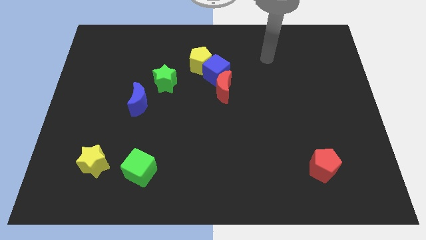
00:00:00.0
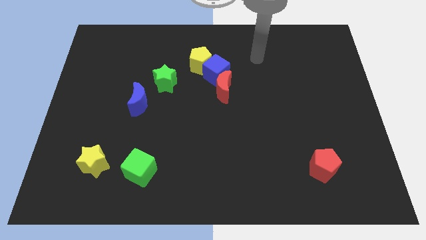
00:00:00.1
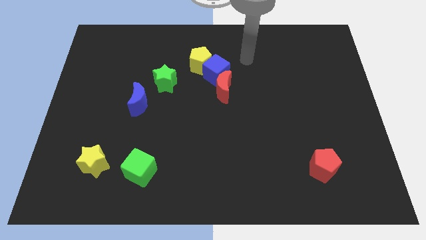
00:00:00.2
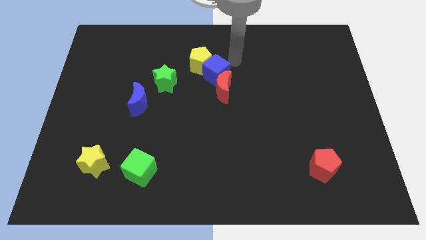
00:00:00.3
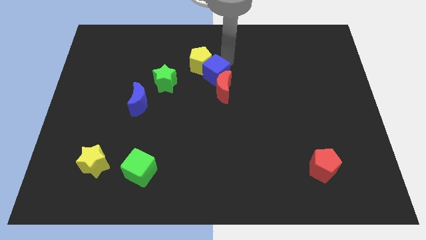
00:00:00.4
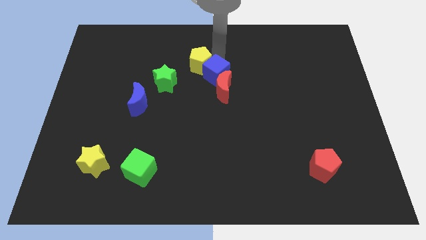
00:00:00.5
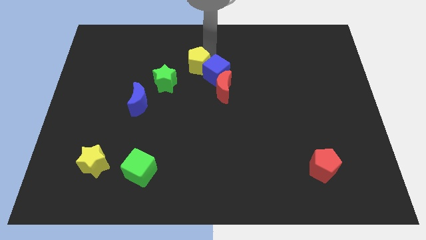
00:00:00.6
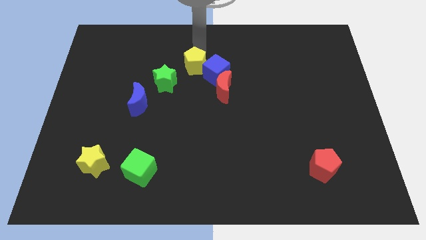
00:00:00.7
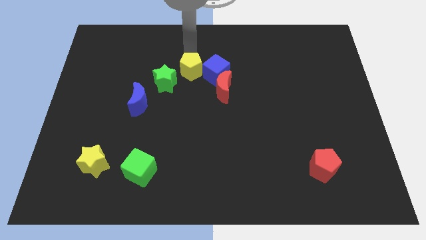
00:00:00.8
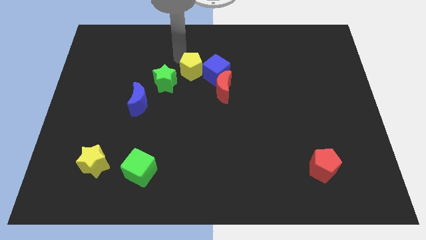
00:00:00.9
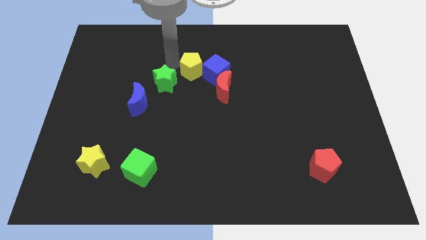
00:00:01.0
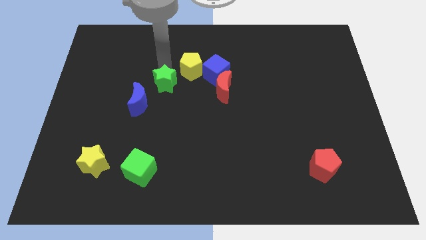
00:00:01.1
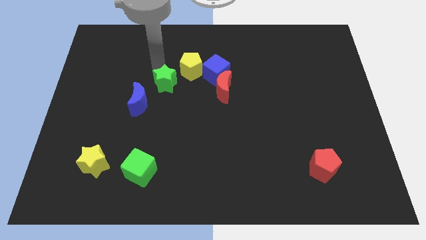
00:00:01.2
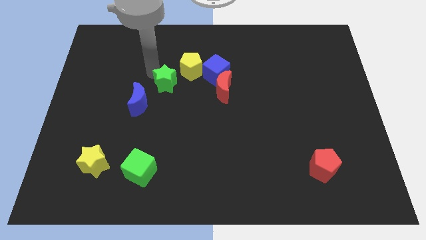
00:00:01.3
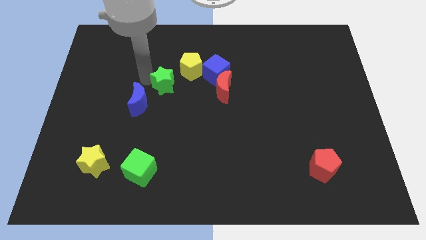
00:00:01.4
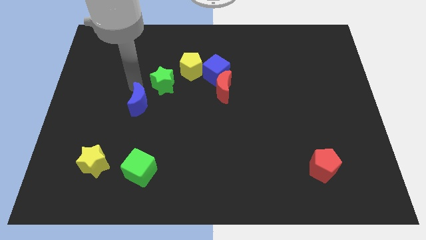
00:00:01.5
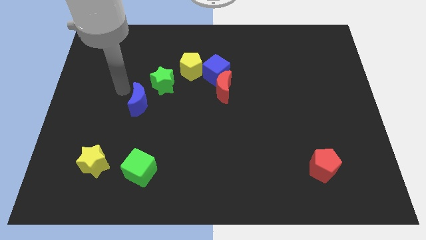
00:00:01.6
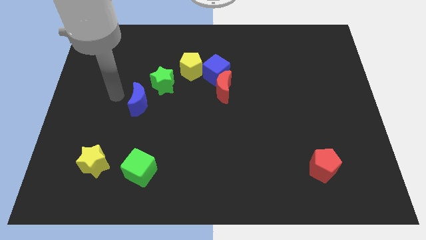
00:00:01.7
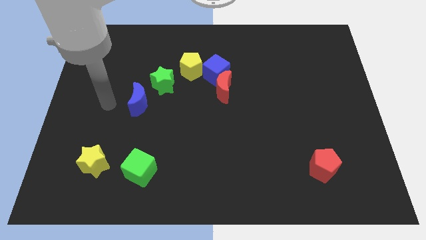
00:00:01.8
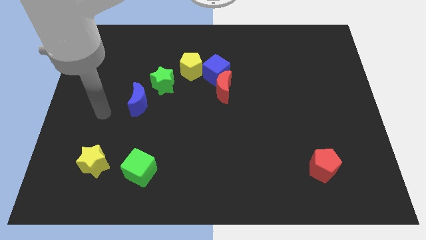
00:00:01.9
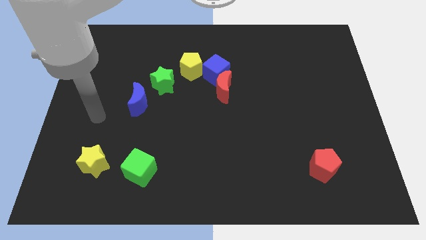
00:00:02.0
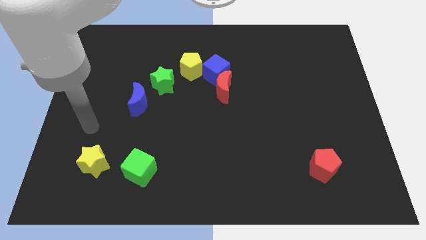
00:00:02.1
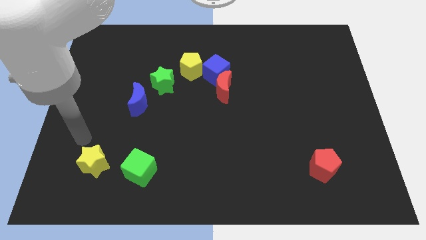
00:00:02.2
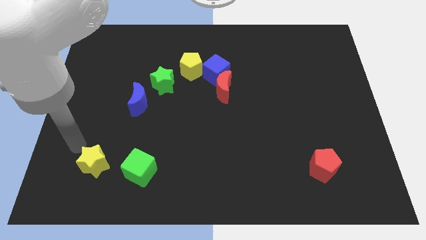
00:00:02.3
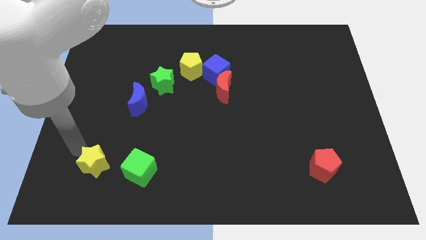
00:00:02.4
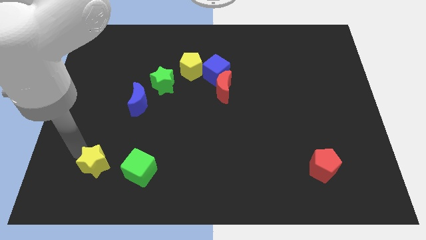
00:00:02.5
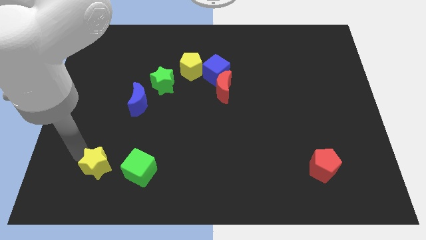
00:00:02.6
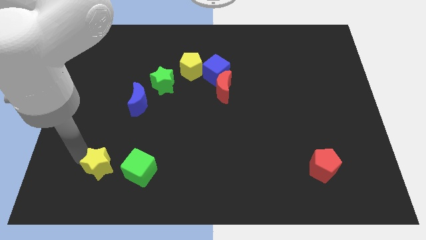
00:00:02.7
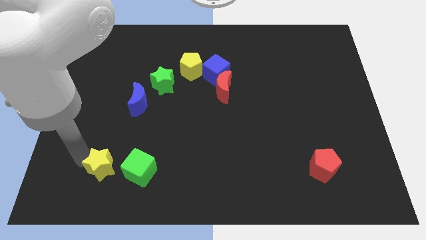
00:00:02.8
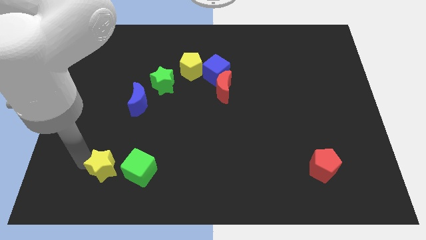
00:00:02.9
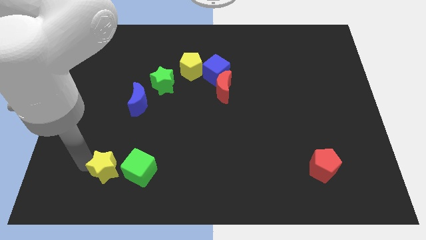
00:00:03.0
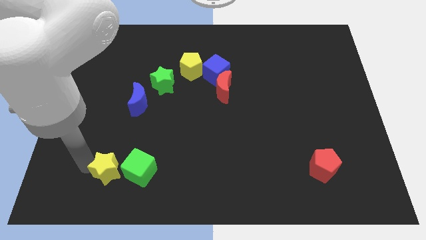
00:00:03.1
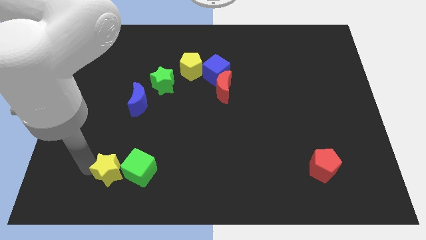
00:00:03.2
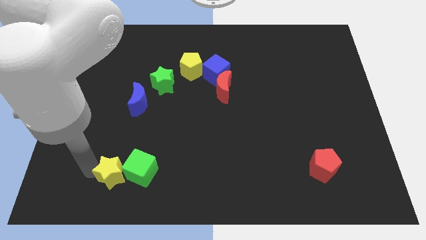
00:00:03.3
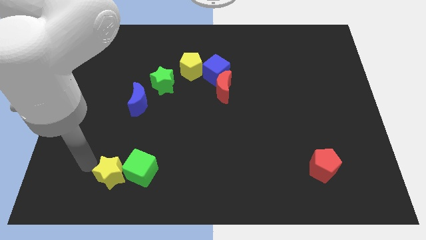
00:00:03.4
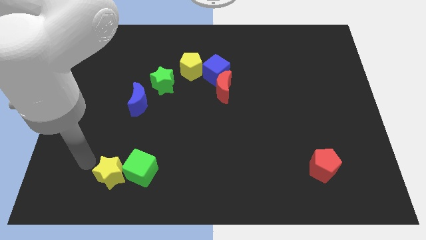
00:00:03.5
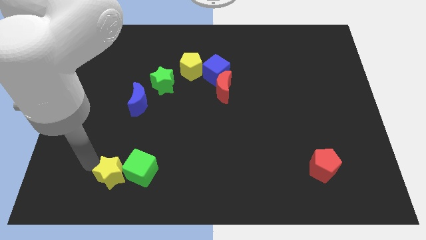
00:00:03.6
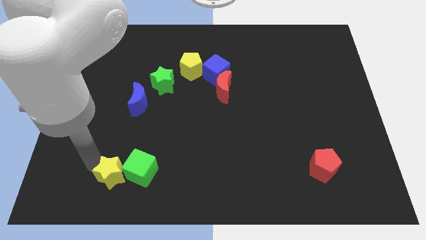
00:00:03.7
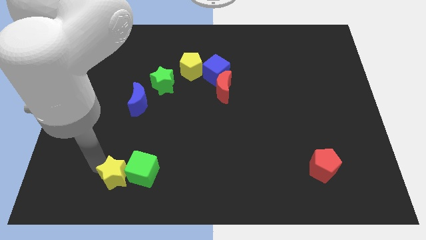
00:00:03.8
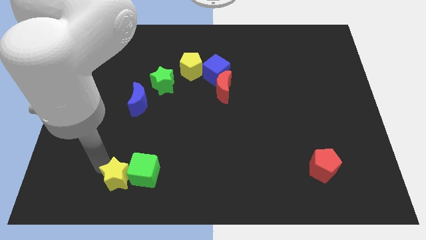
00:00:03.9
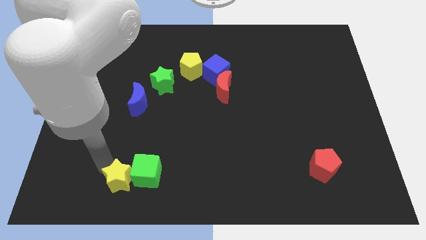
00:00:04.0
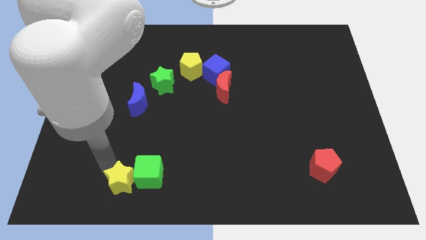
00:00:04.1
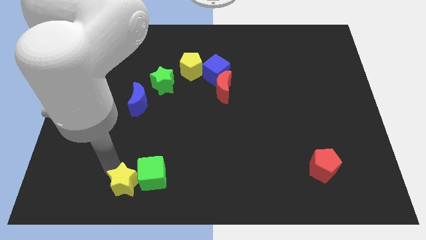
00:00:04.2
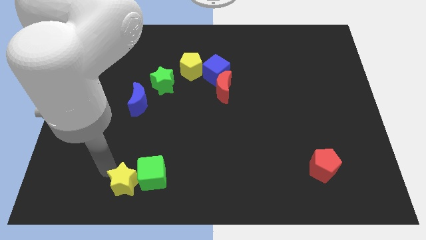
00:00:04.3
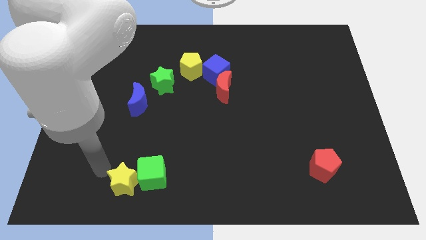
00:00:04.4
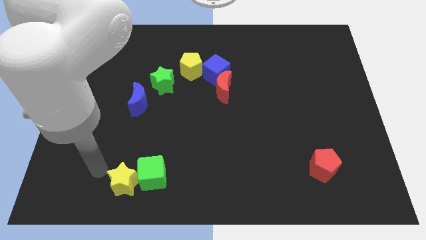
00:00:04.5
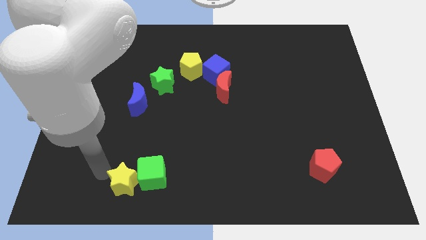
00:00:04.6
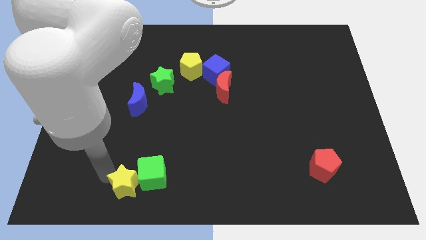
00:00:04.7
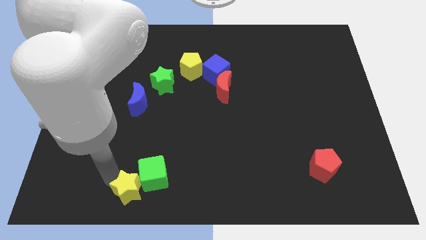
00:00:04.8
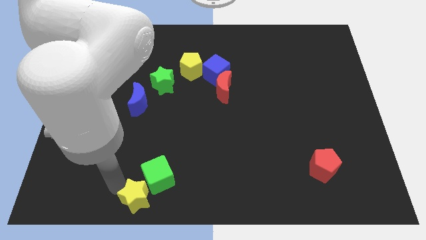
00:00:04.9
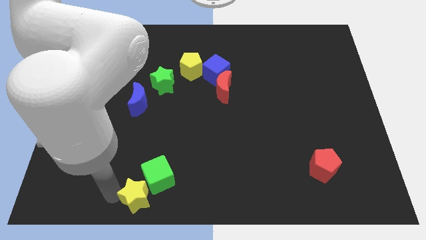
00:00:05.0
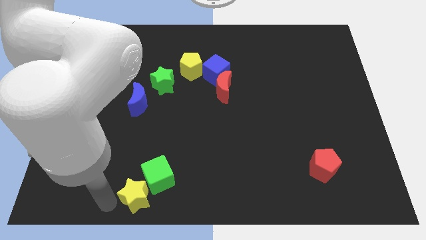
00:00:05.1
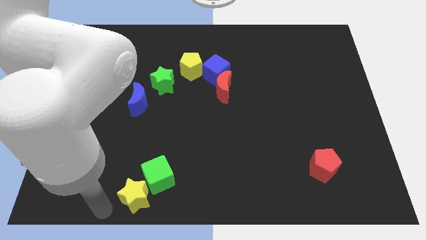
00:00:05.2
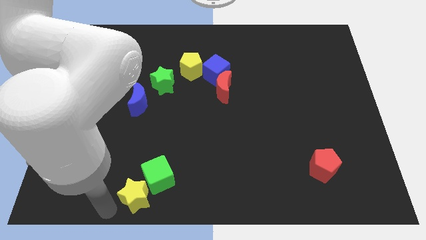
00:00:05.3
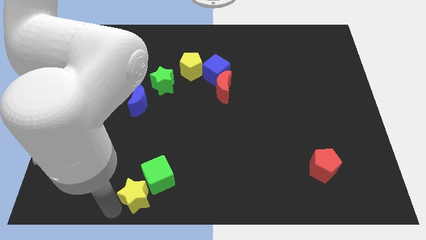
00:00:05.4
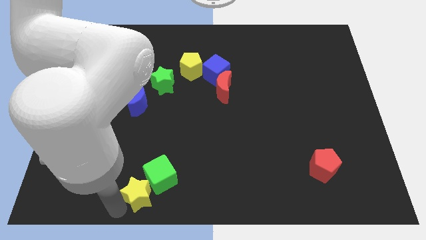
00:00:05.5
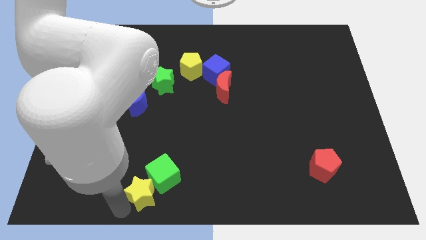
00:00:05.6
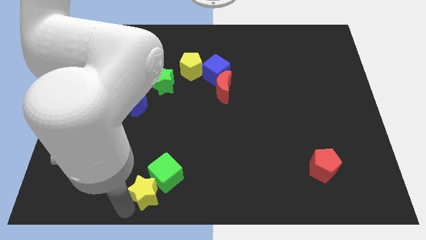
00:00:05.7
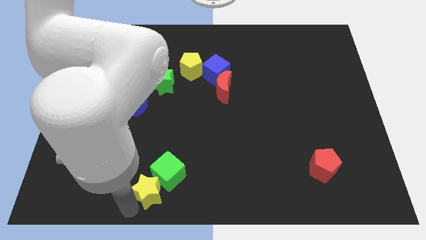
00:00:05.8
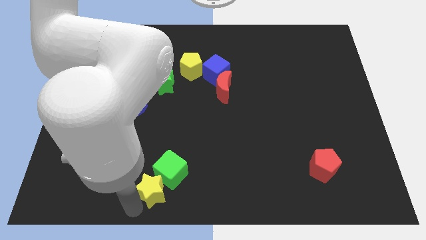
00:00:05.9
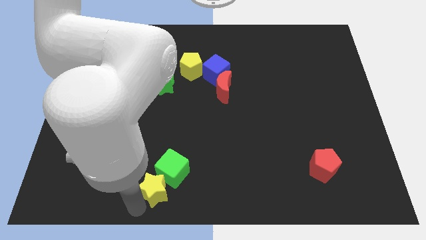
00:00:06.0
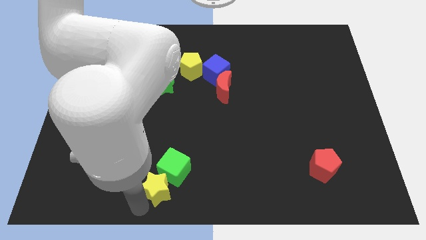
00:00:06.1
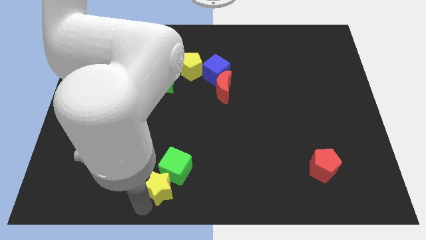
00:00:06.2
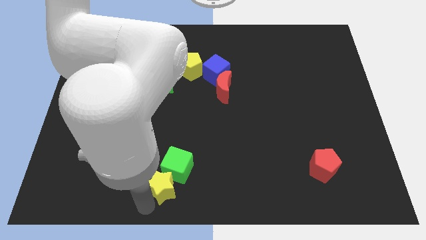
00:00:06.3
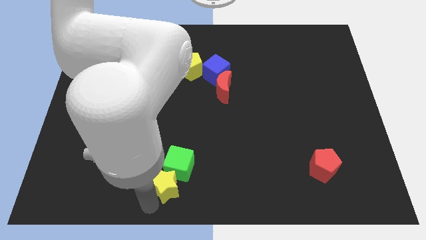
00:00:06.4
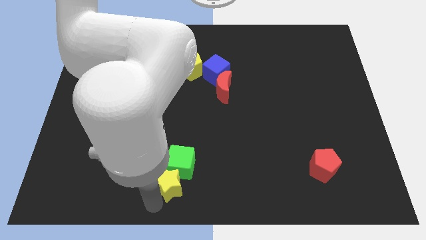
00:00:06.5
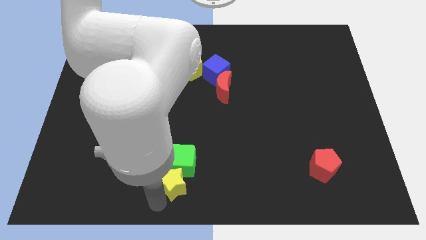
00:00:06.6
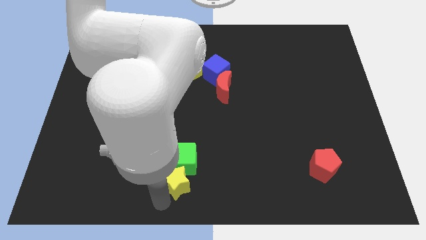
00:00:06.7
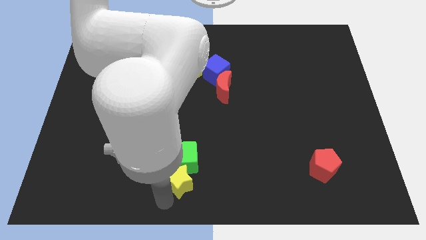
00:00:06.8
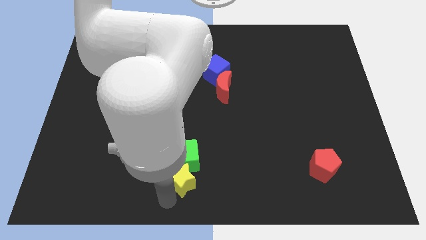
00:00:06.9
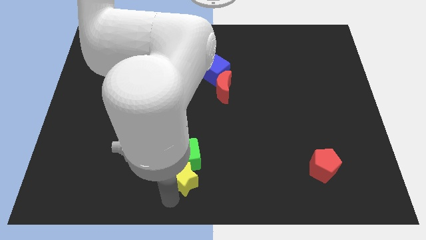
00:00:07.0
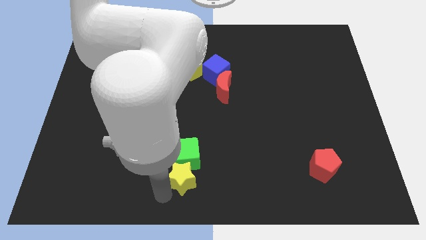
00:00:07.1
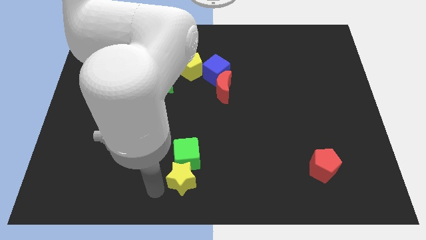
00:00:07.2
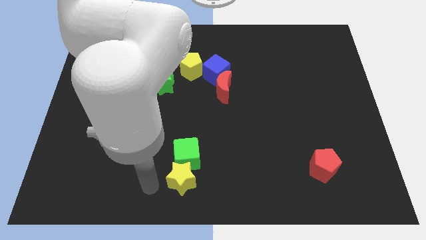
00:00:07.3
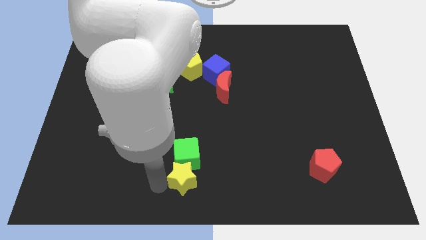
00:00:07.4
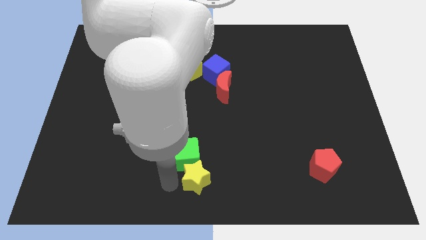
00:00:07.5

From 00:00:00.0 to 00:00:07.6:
push the yellow star right

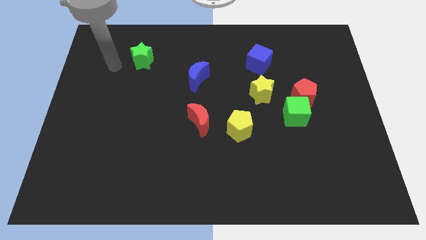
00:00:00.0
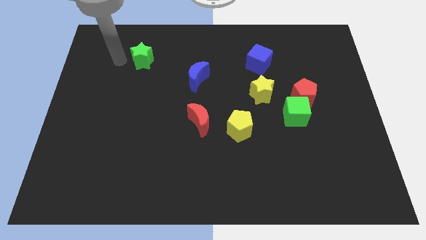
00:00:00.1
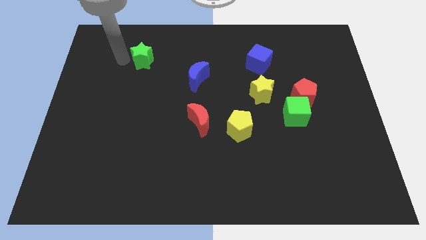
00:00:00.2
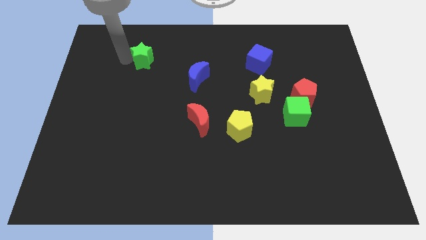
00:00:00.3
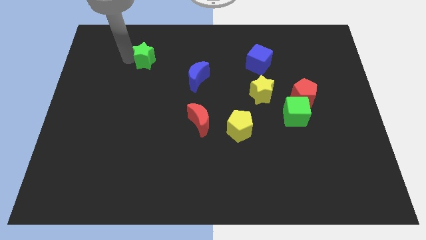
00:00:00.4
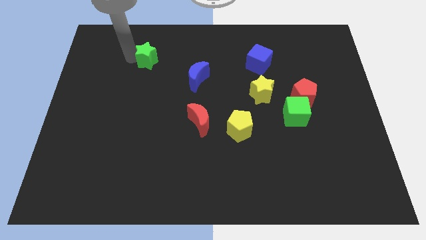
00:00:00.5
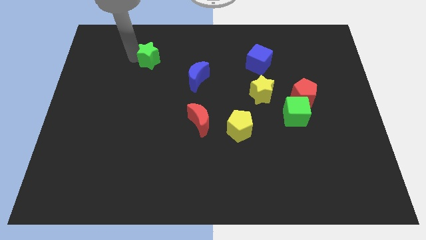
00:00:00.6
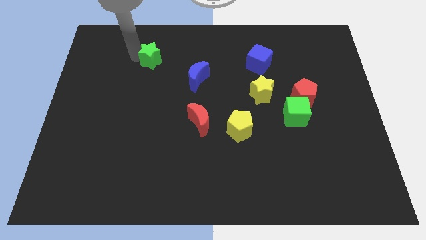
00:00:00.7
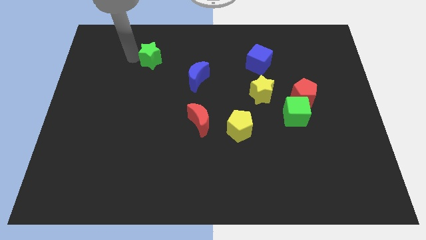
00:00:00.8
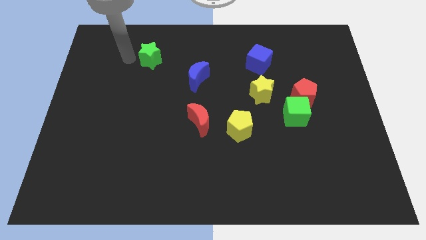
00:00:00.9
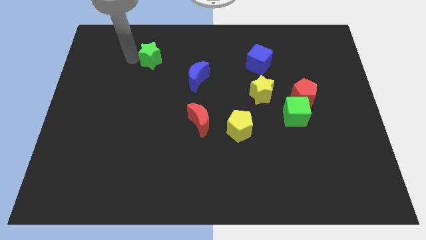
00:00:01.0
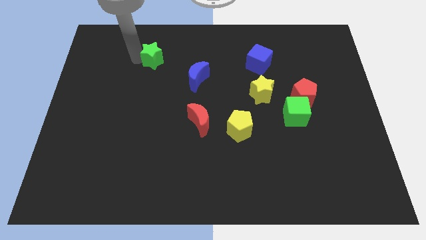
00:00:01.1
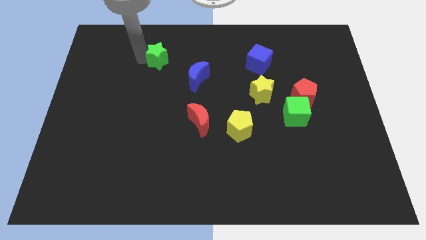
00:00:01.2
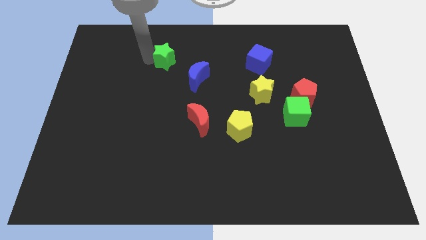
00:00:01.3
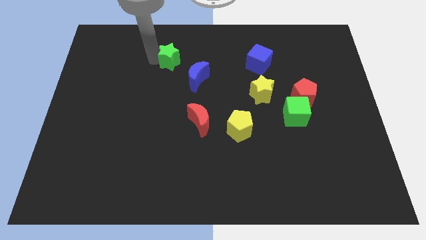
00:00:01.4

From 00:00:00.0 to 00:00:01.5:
slightly slide the green star to the right
